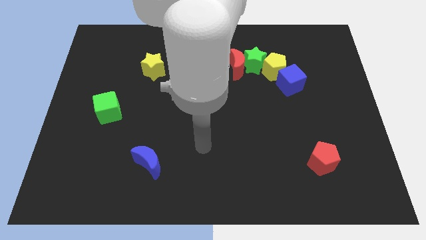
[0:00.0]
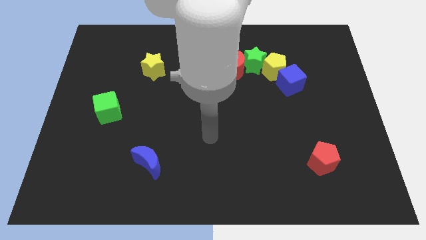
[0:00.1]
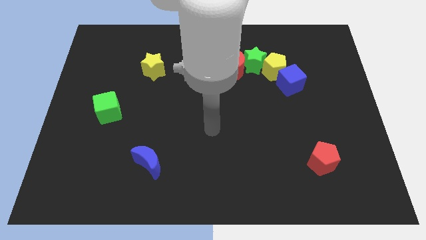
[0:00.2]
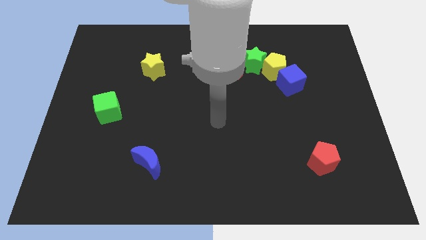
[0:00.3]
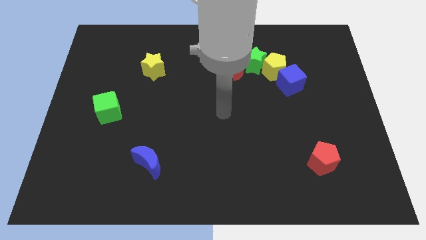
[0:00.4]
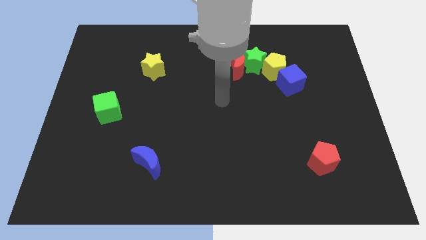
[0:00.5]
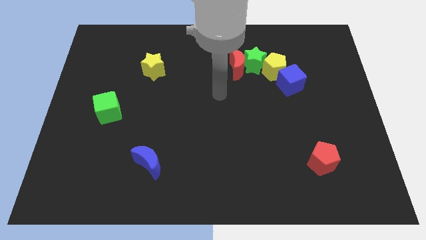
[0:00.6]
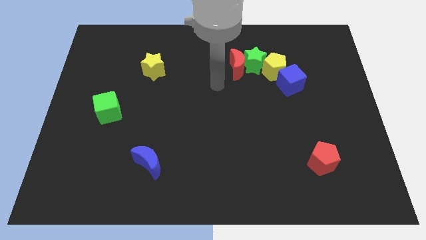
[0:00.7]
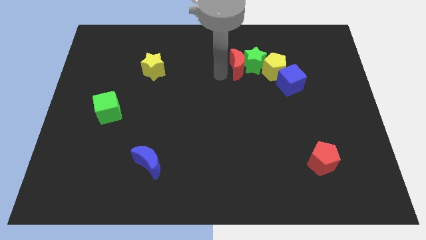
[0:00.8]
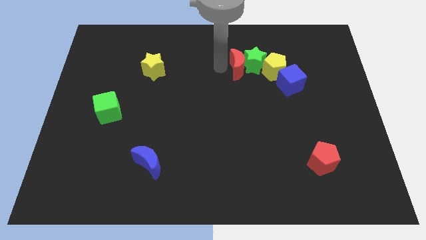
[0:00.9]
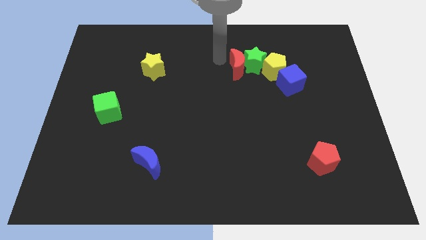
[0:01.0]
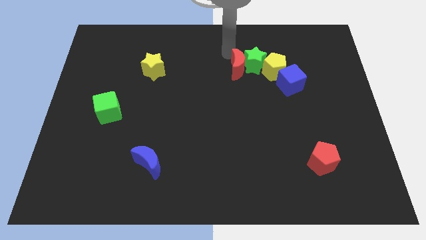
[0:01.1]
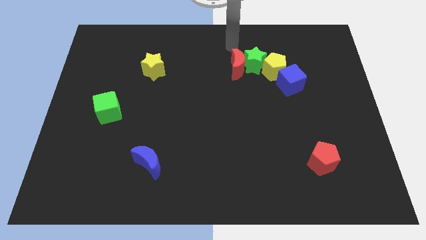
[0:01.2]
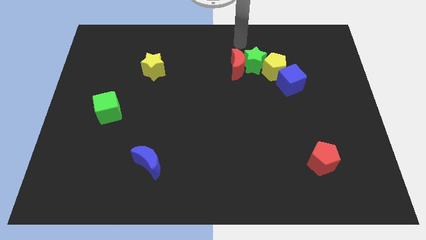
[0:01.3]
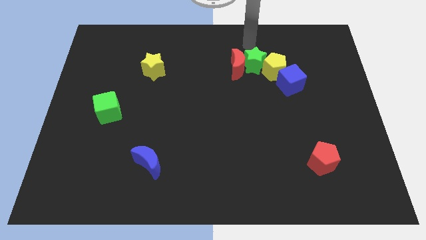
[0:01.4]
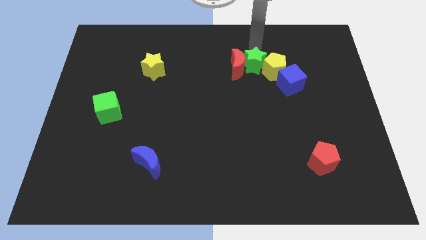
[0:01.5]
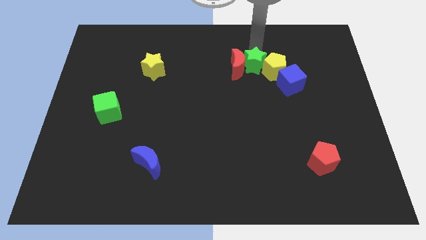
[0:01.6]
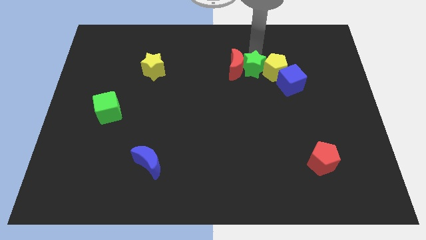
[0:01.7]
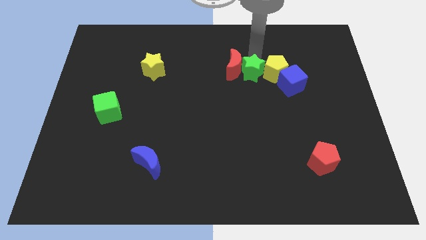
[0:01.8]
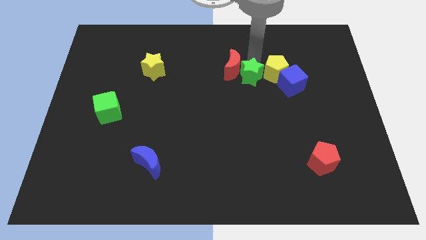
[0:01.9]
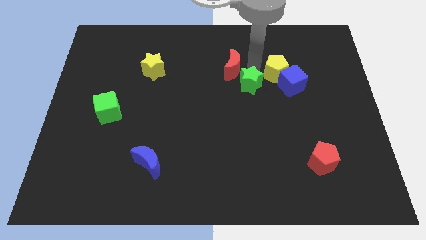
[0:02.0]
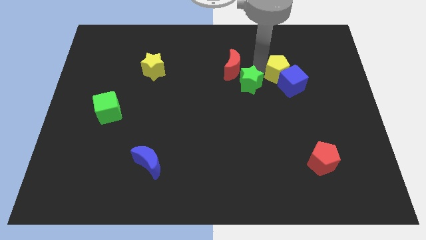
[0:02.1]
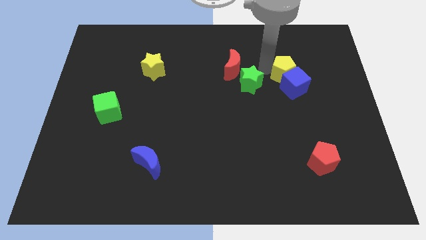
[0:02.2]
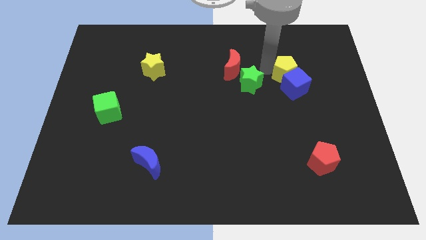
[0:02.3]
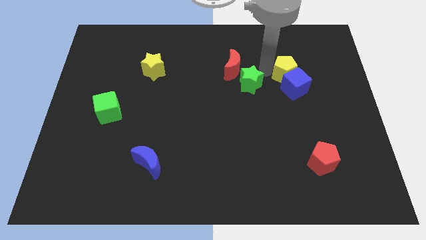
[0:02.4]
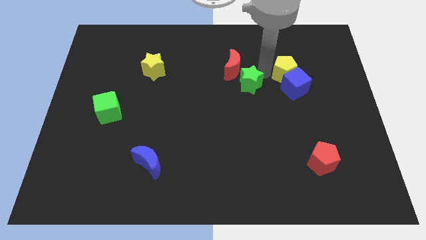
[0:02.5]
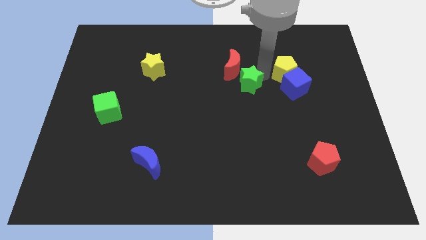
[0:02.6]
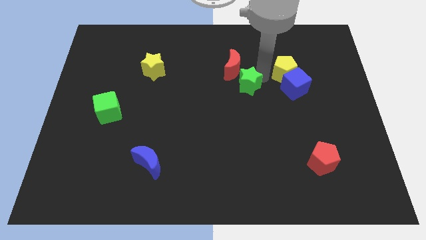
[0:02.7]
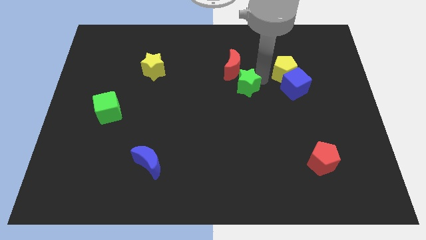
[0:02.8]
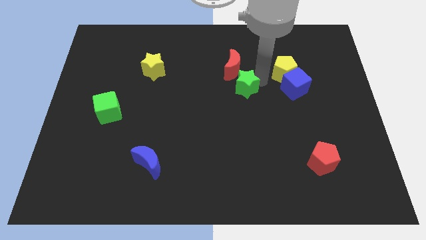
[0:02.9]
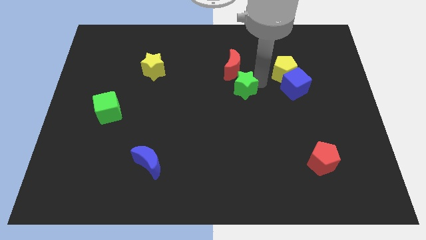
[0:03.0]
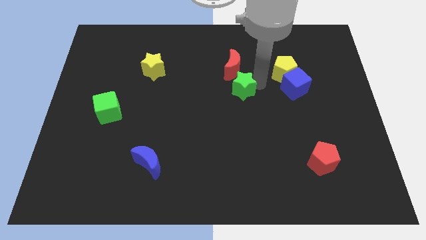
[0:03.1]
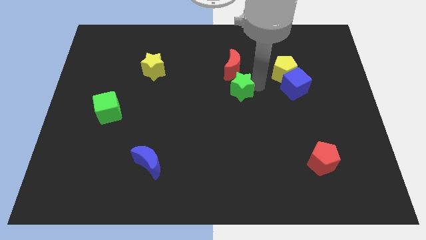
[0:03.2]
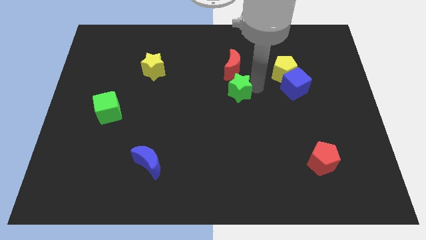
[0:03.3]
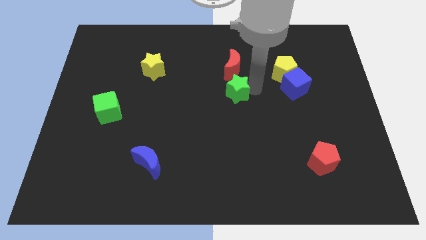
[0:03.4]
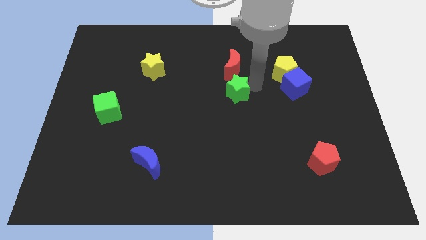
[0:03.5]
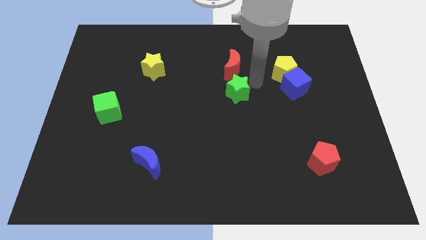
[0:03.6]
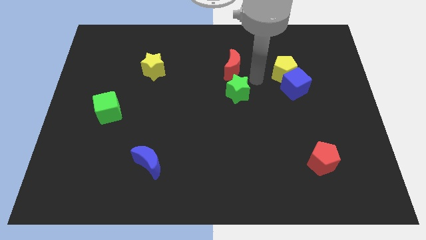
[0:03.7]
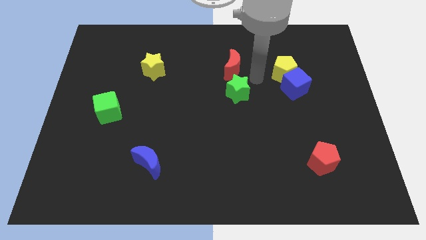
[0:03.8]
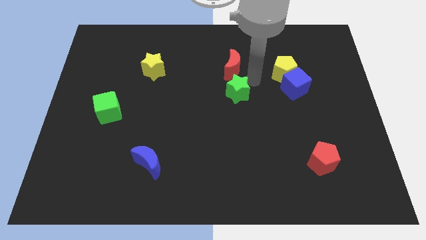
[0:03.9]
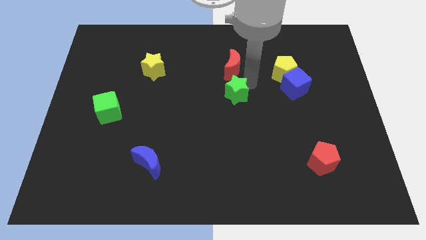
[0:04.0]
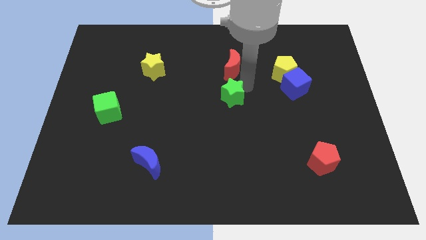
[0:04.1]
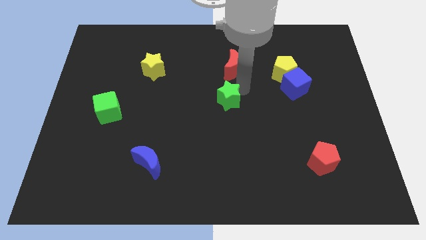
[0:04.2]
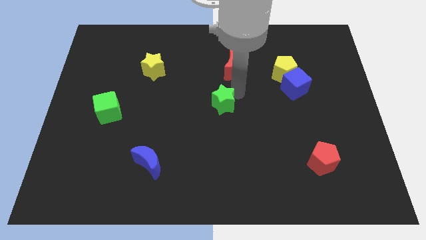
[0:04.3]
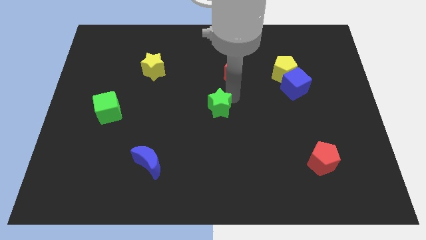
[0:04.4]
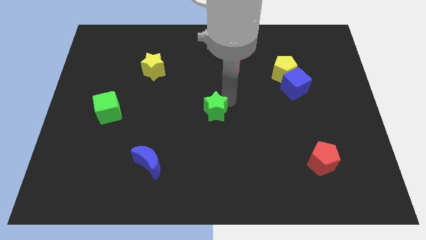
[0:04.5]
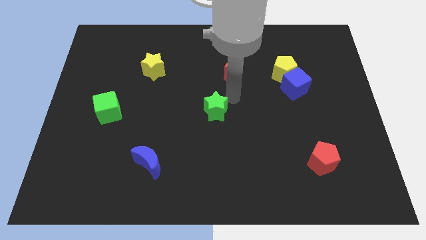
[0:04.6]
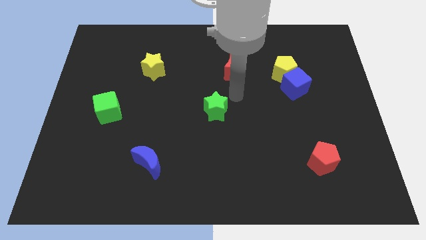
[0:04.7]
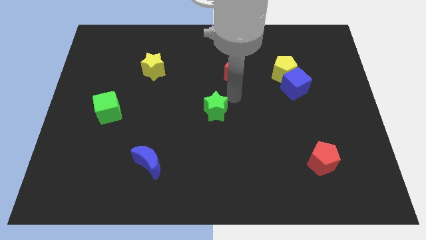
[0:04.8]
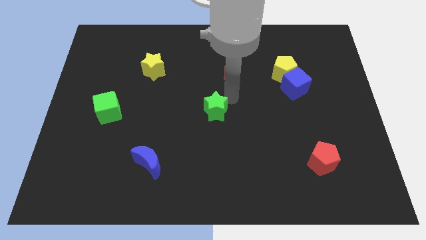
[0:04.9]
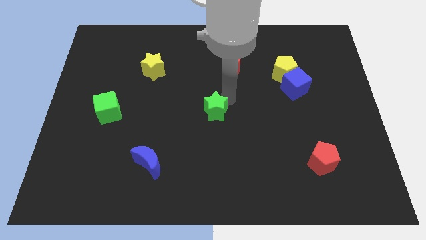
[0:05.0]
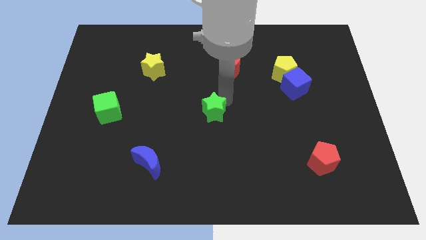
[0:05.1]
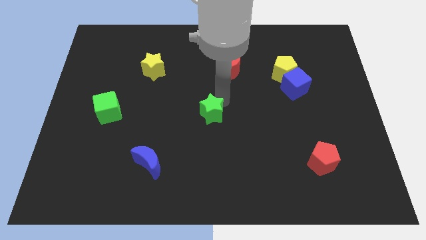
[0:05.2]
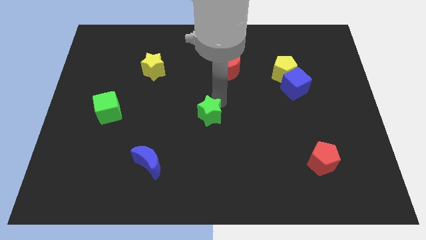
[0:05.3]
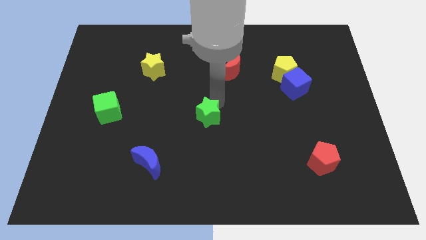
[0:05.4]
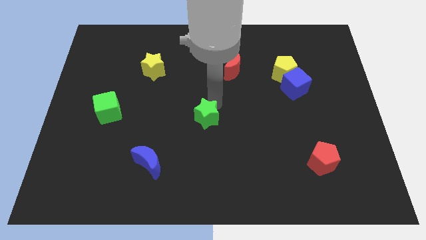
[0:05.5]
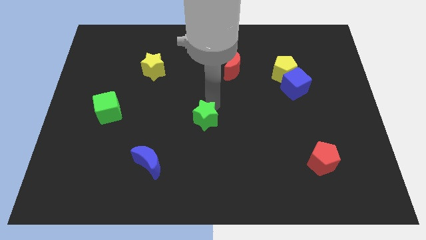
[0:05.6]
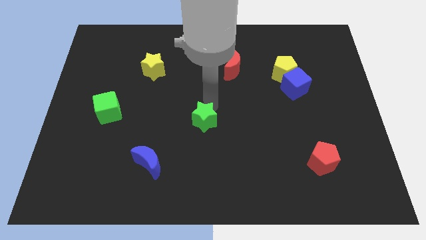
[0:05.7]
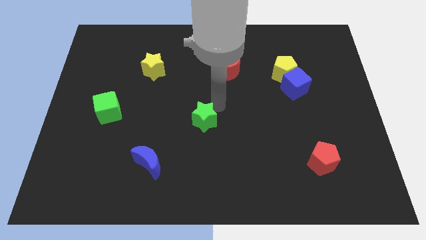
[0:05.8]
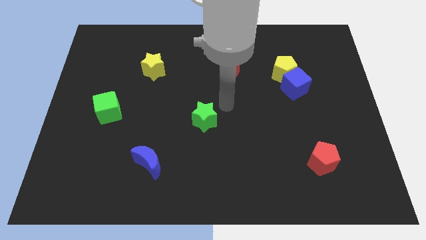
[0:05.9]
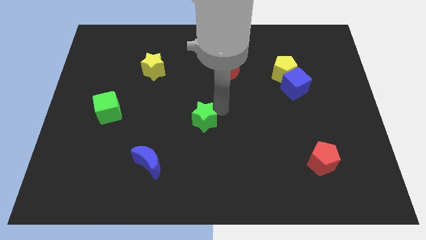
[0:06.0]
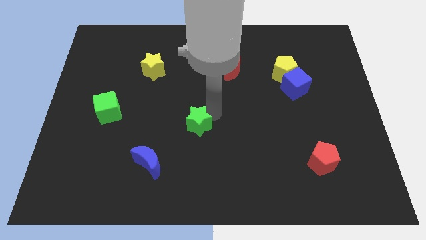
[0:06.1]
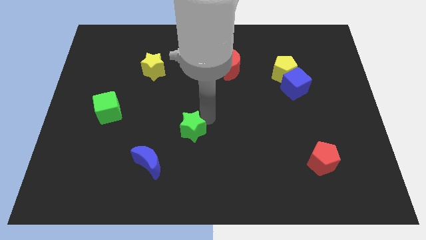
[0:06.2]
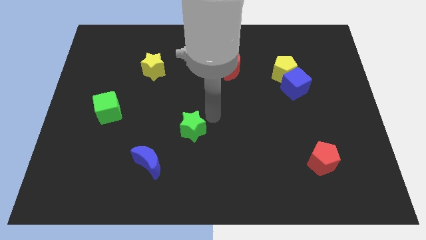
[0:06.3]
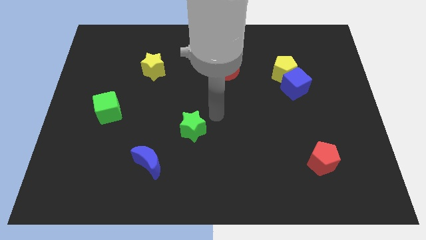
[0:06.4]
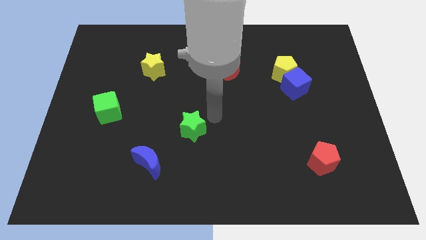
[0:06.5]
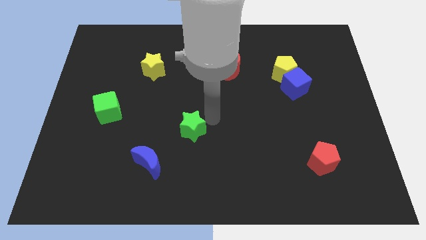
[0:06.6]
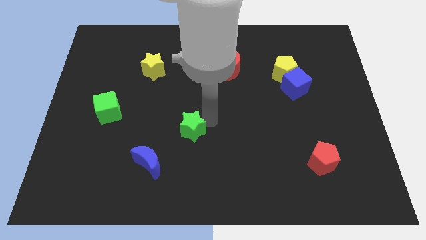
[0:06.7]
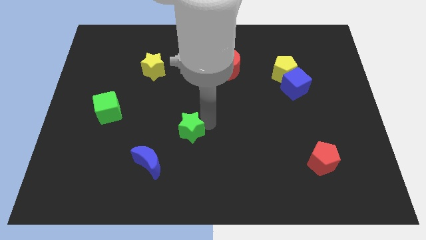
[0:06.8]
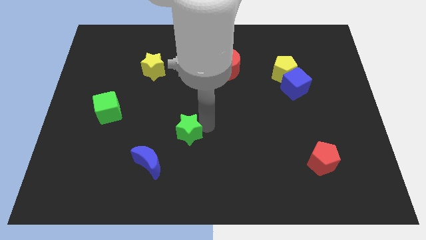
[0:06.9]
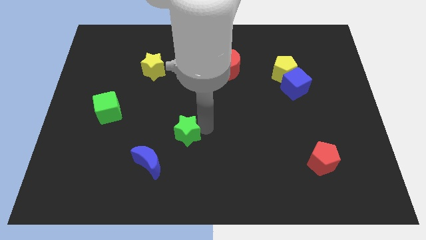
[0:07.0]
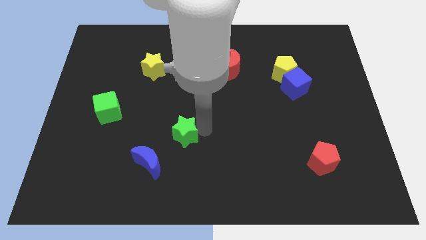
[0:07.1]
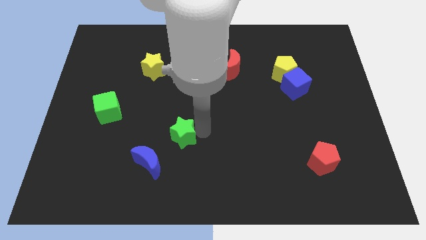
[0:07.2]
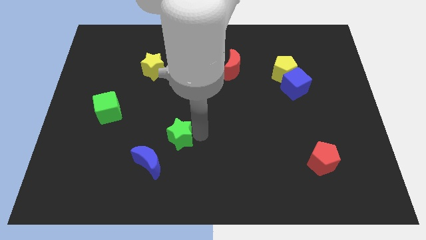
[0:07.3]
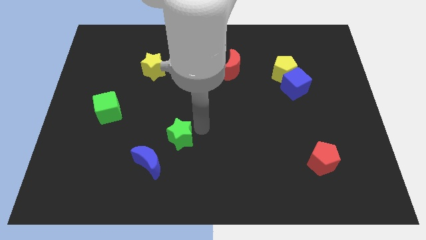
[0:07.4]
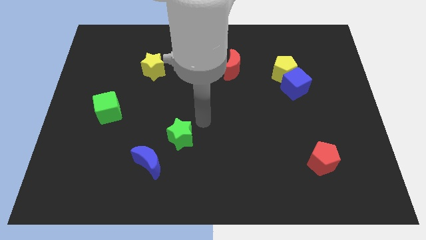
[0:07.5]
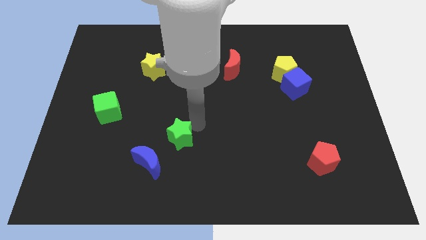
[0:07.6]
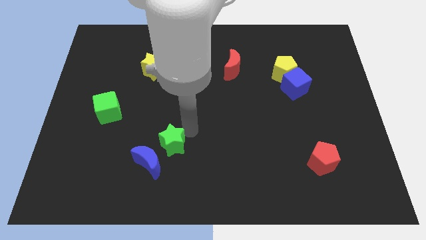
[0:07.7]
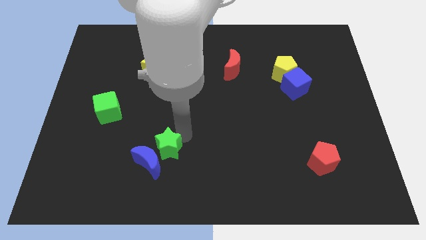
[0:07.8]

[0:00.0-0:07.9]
push the green star towards the blue moon
